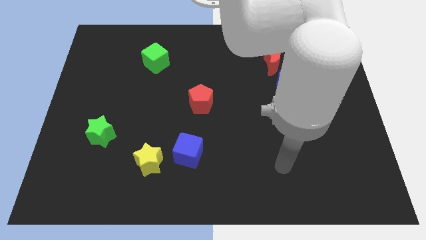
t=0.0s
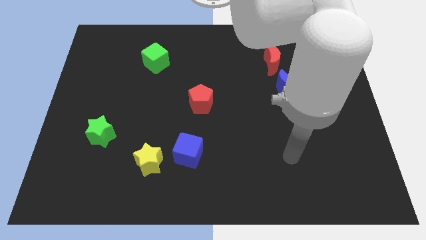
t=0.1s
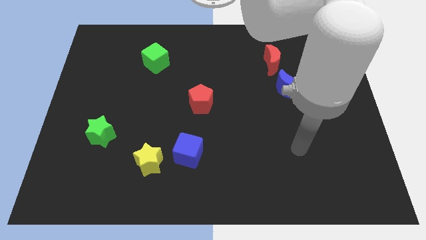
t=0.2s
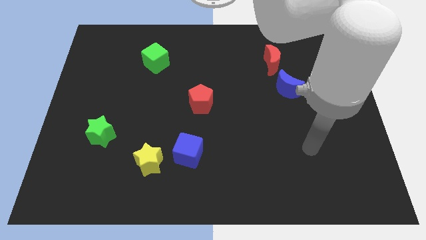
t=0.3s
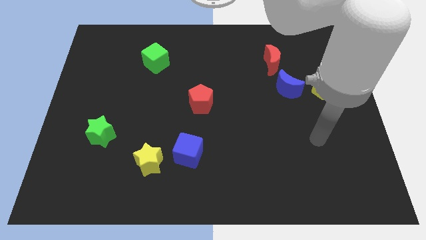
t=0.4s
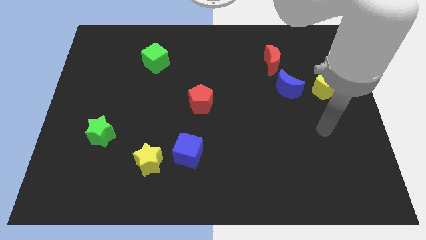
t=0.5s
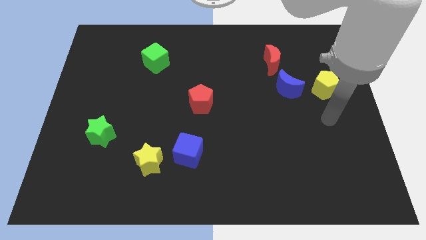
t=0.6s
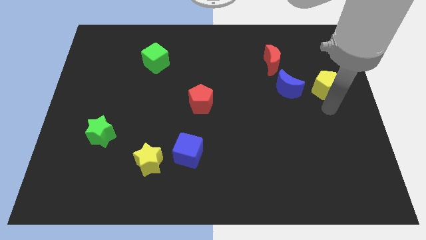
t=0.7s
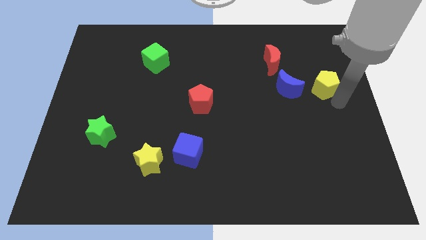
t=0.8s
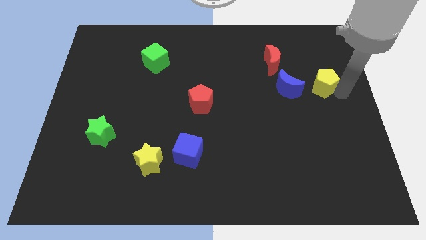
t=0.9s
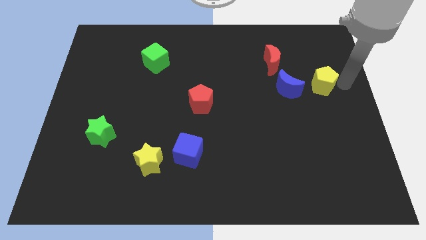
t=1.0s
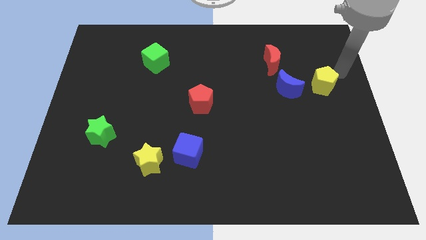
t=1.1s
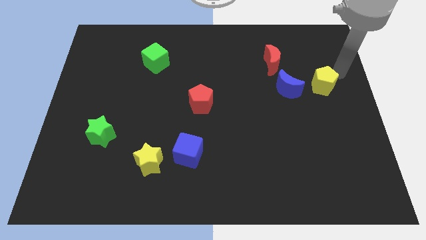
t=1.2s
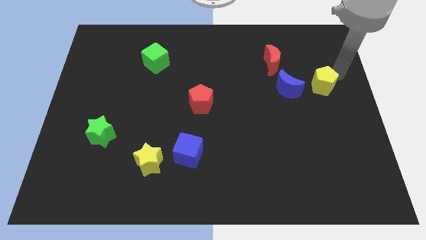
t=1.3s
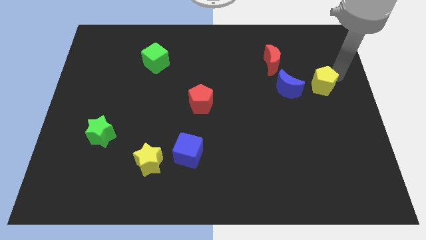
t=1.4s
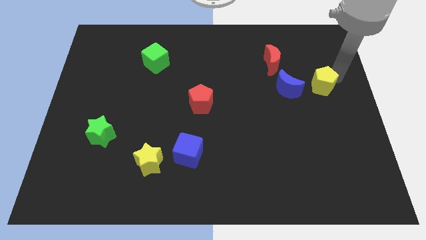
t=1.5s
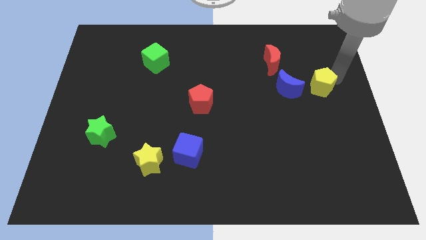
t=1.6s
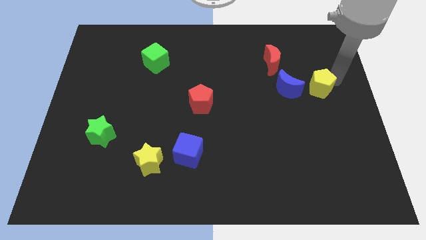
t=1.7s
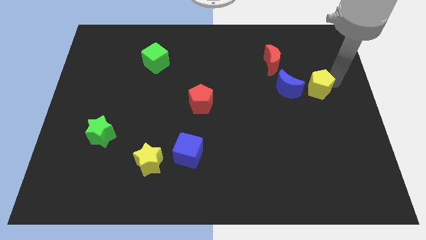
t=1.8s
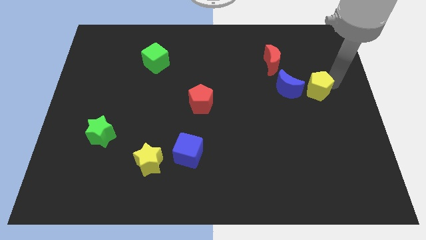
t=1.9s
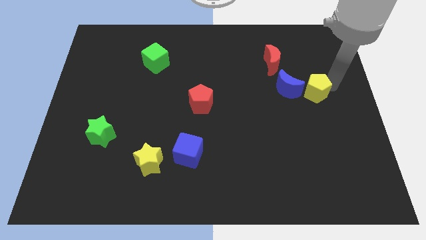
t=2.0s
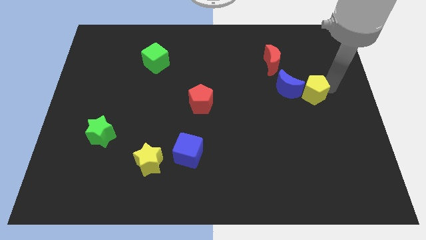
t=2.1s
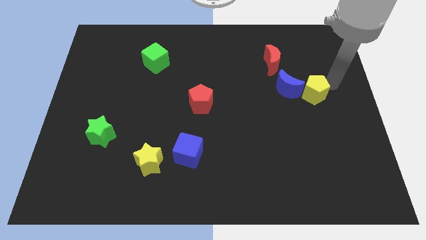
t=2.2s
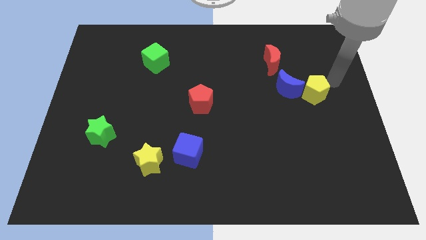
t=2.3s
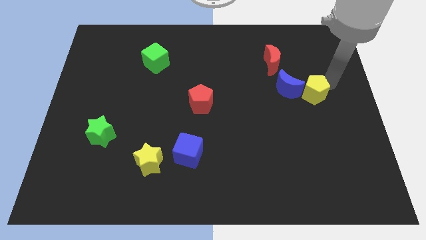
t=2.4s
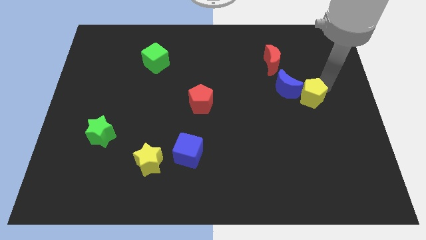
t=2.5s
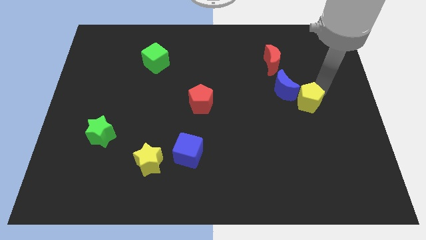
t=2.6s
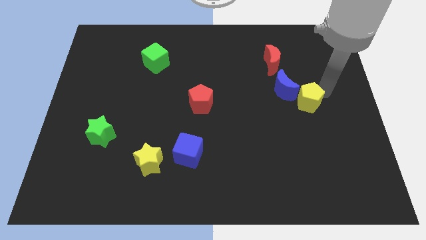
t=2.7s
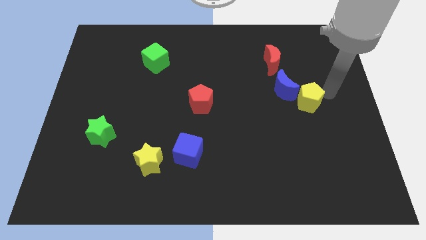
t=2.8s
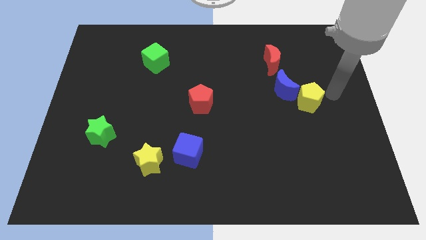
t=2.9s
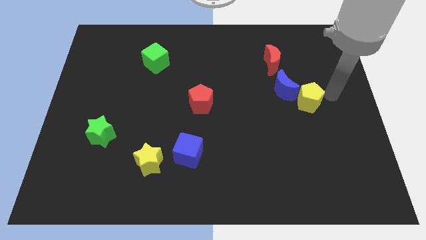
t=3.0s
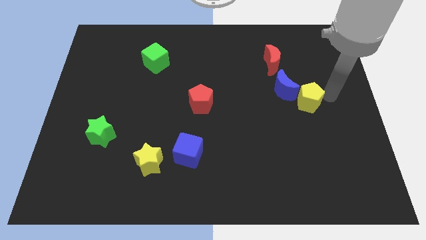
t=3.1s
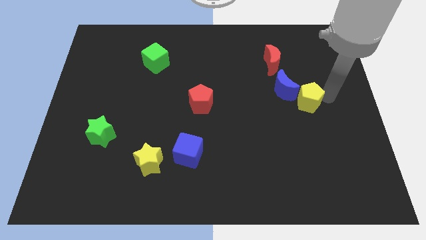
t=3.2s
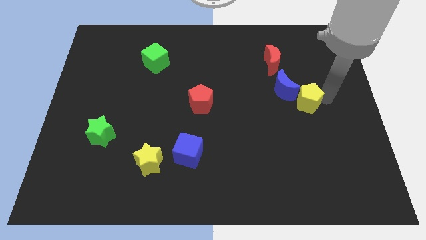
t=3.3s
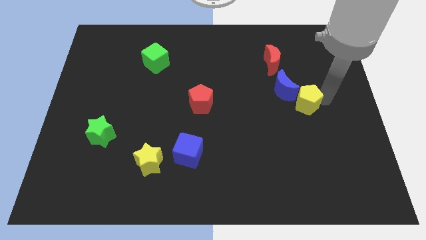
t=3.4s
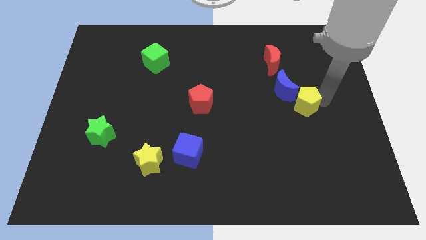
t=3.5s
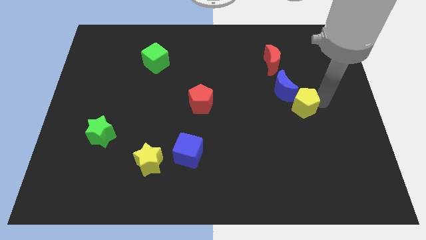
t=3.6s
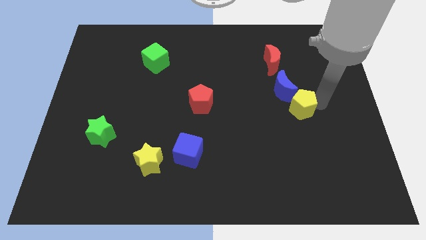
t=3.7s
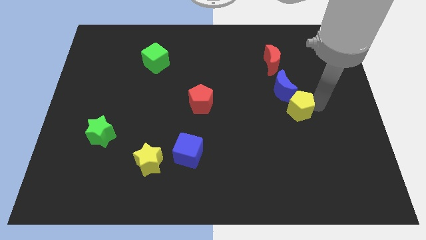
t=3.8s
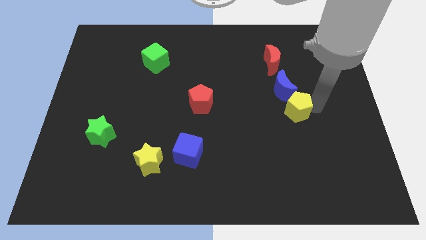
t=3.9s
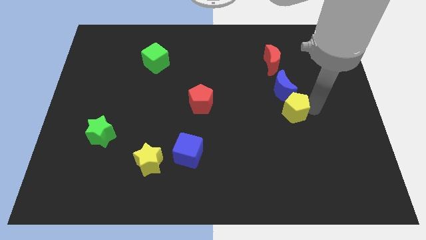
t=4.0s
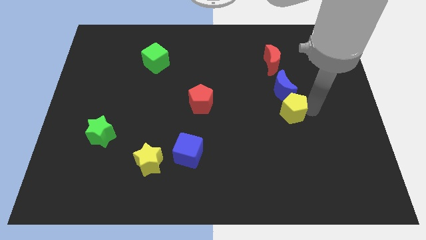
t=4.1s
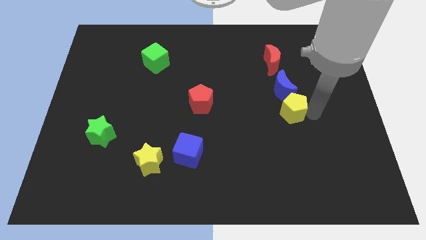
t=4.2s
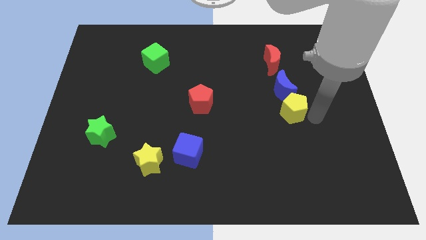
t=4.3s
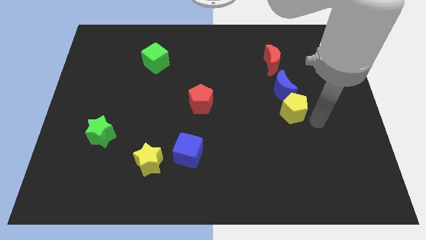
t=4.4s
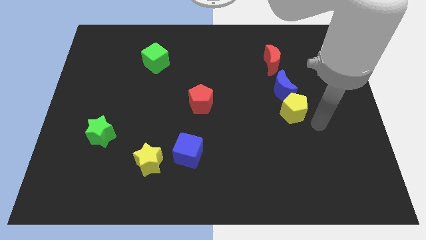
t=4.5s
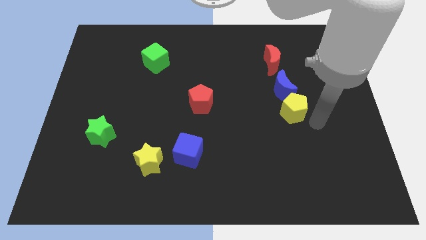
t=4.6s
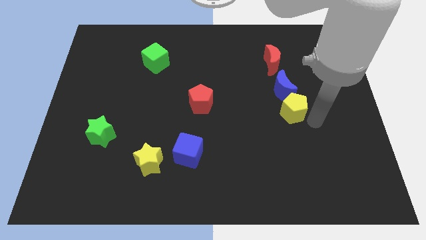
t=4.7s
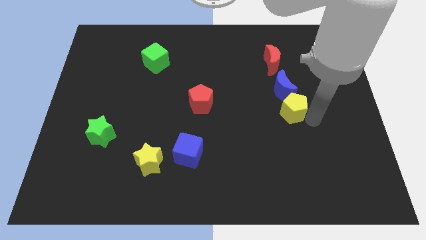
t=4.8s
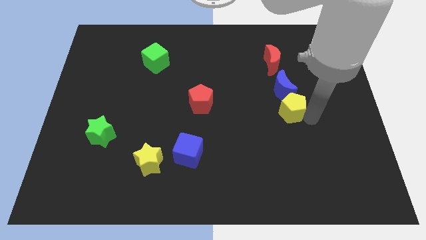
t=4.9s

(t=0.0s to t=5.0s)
push the yellow pentagon a little left

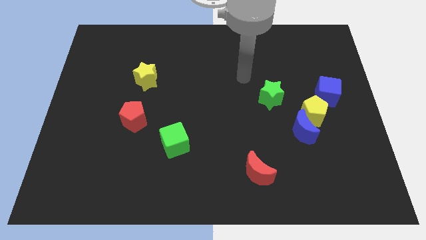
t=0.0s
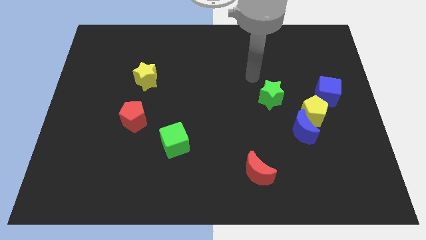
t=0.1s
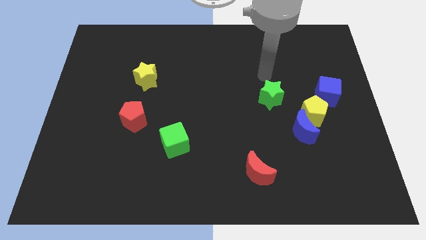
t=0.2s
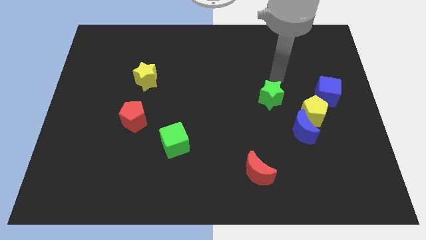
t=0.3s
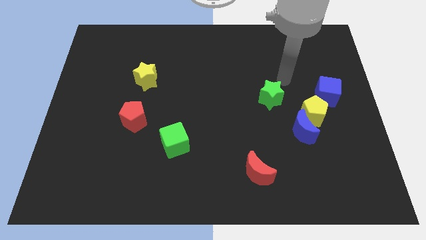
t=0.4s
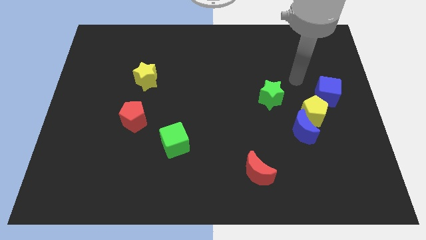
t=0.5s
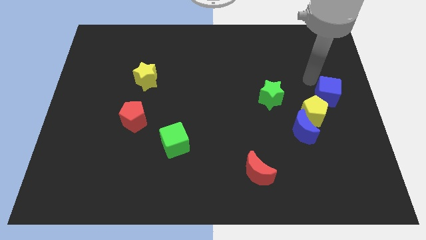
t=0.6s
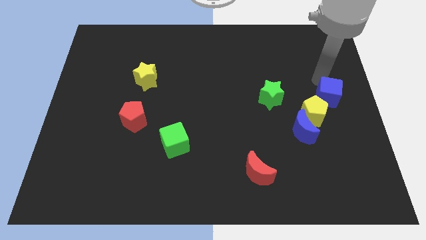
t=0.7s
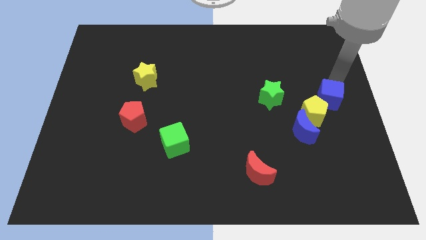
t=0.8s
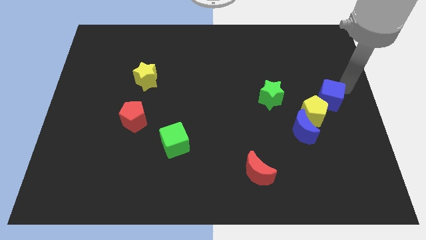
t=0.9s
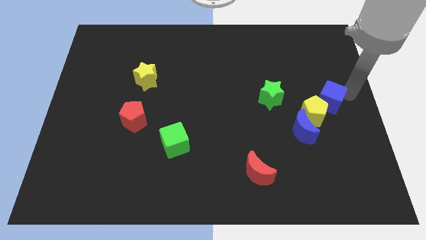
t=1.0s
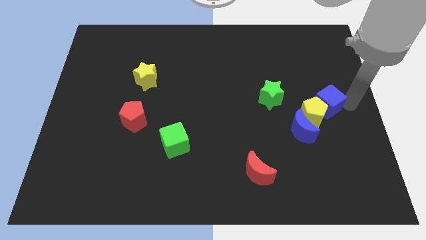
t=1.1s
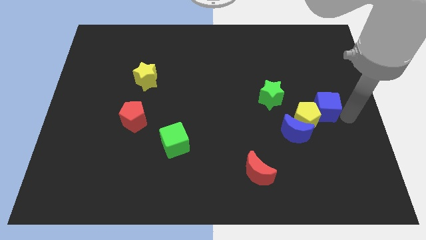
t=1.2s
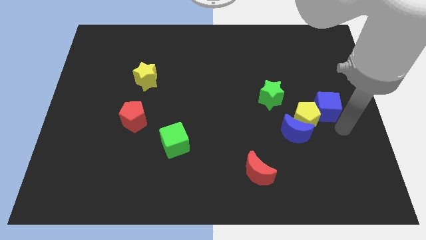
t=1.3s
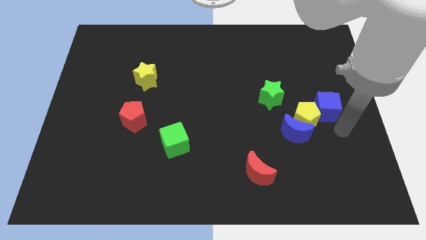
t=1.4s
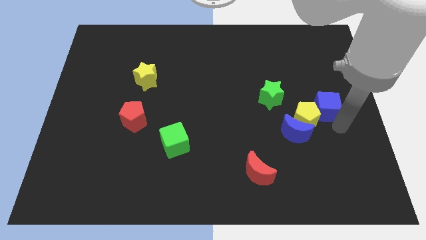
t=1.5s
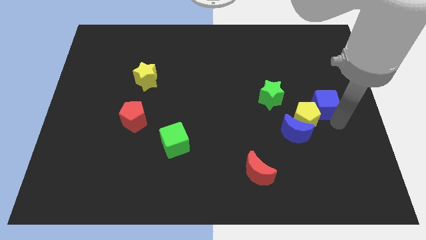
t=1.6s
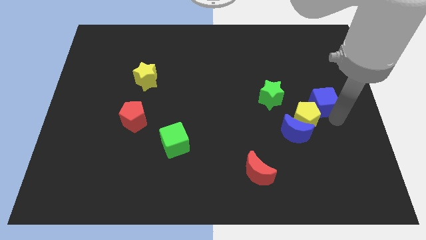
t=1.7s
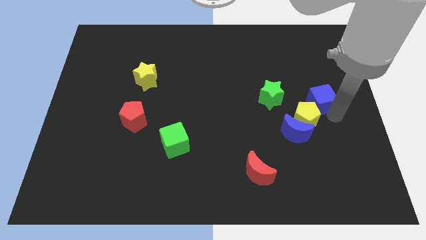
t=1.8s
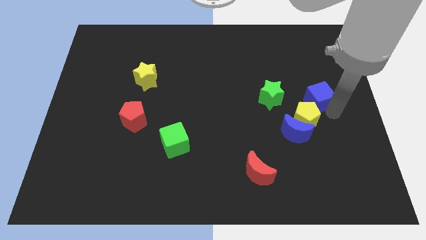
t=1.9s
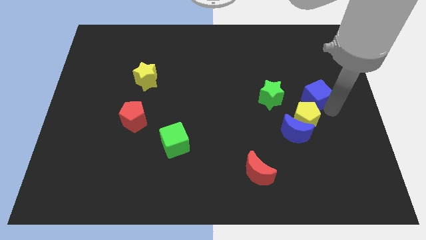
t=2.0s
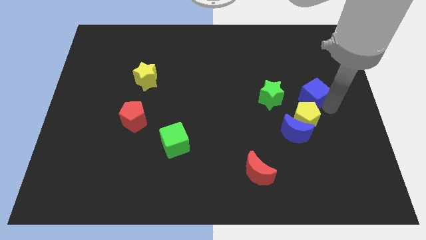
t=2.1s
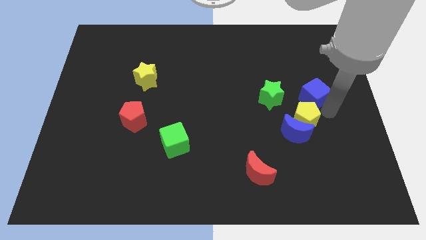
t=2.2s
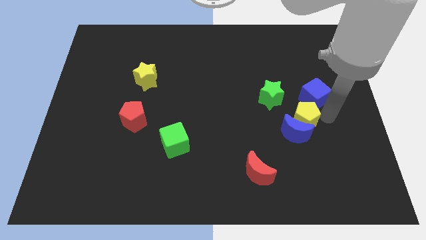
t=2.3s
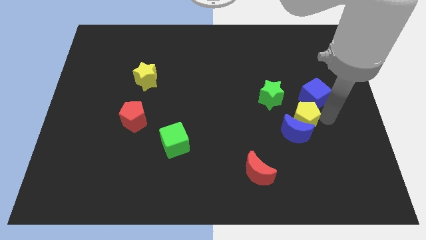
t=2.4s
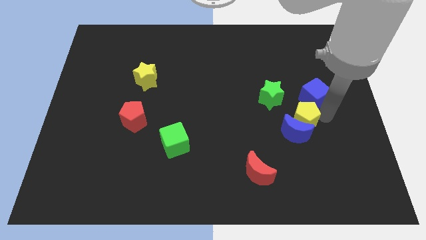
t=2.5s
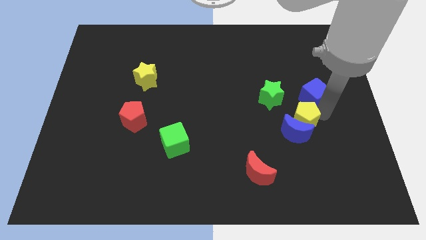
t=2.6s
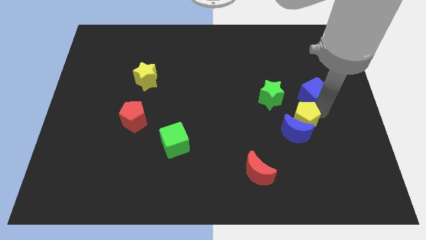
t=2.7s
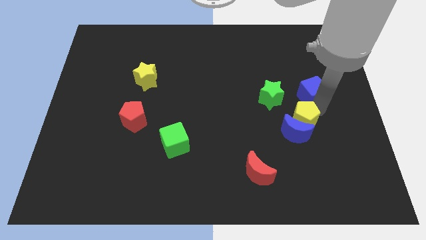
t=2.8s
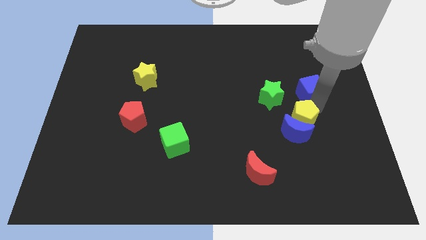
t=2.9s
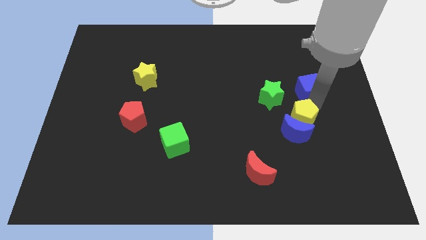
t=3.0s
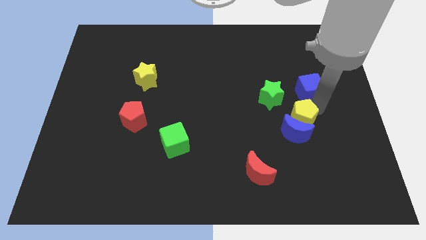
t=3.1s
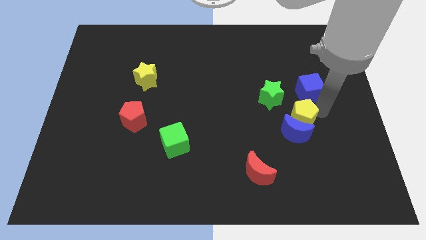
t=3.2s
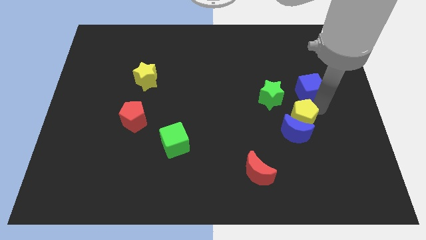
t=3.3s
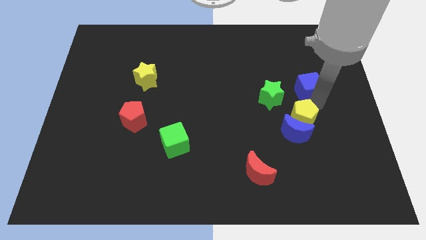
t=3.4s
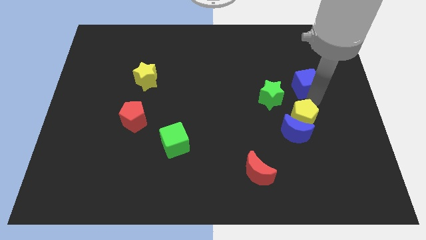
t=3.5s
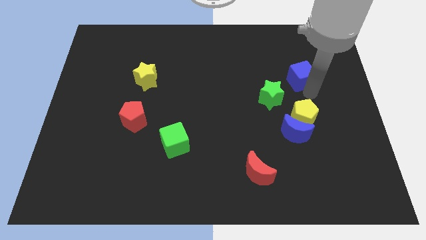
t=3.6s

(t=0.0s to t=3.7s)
slightly slide the blue cube upwards and left
